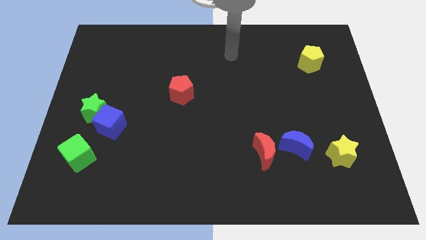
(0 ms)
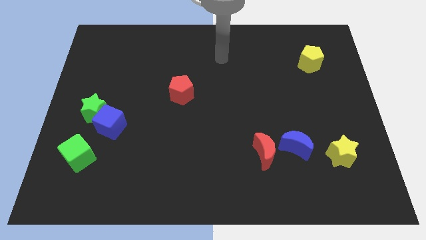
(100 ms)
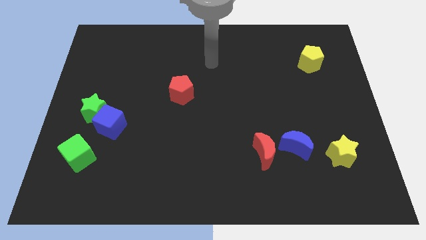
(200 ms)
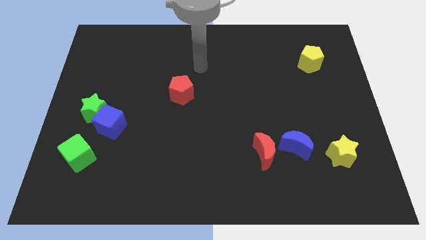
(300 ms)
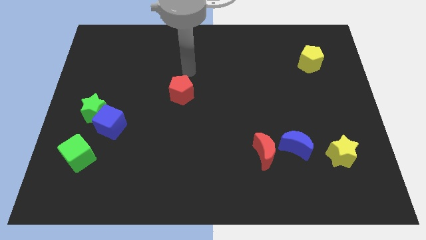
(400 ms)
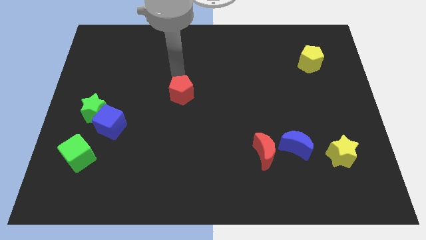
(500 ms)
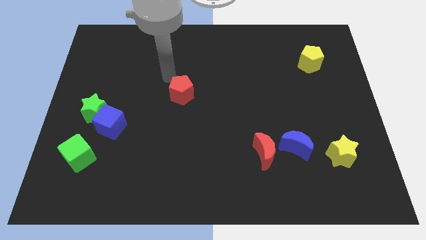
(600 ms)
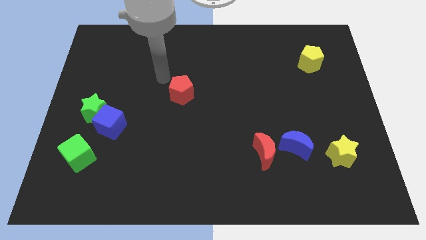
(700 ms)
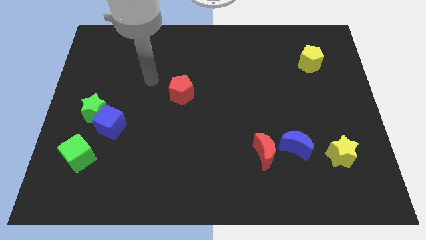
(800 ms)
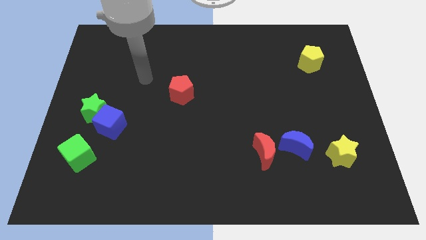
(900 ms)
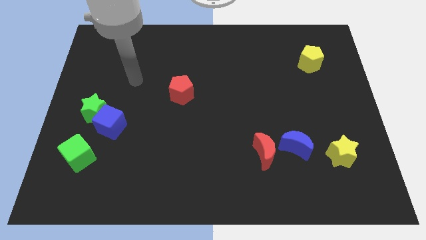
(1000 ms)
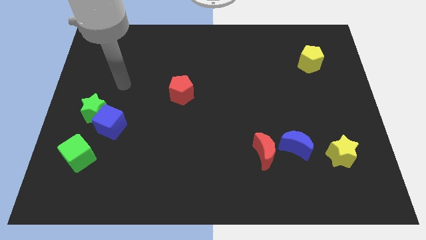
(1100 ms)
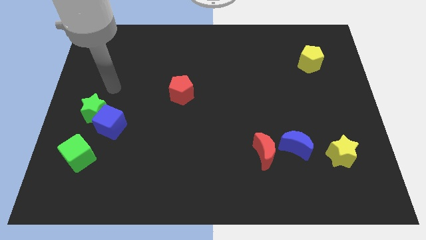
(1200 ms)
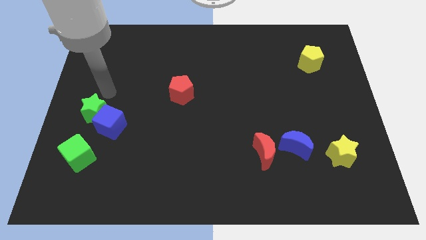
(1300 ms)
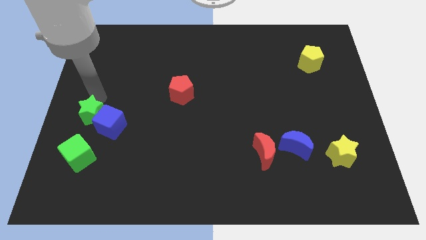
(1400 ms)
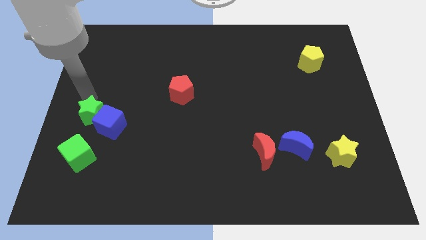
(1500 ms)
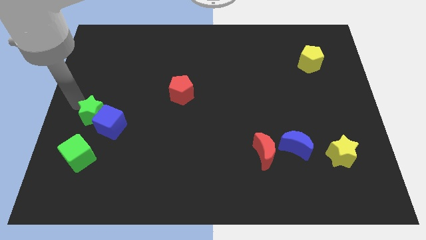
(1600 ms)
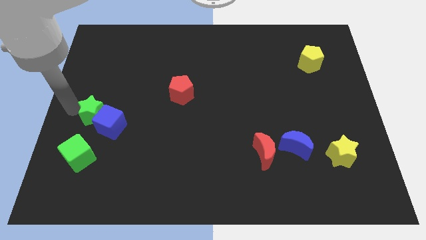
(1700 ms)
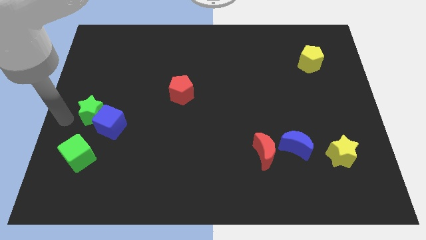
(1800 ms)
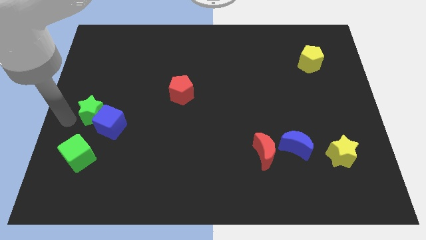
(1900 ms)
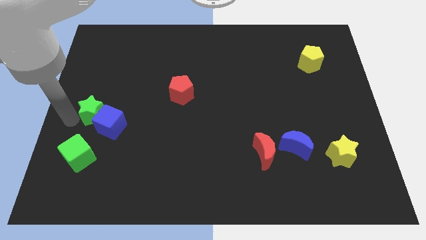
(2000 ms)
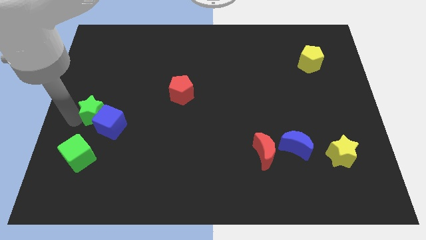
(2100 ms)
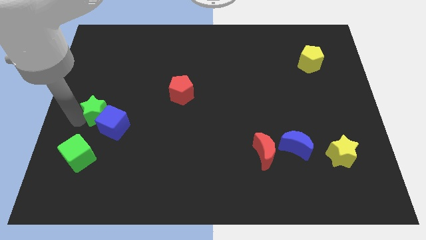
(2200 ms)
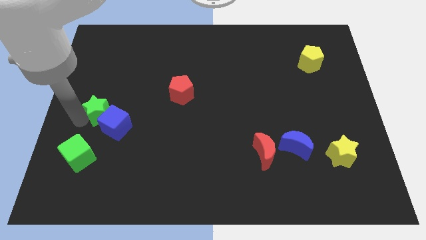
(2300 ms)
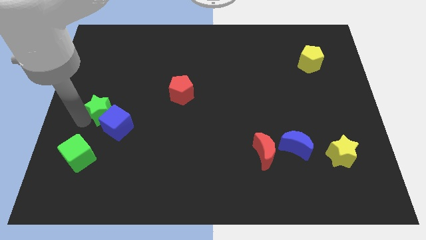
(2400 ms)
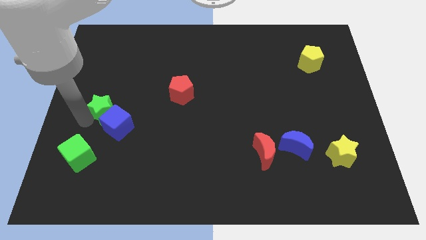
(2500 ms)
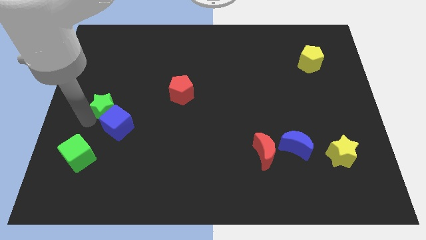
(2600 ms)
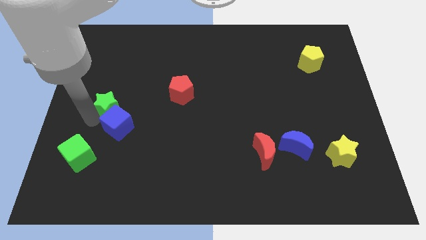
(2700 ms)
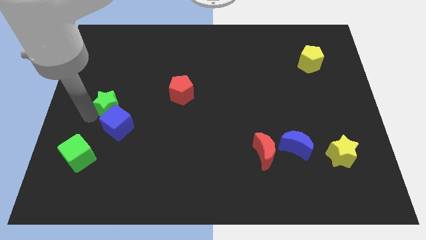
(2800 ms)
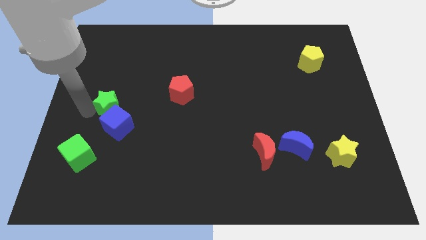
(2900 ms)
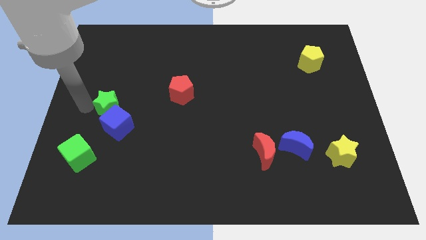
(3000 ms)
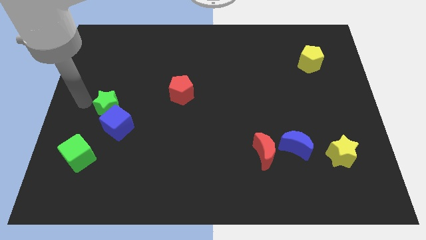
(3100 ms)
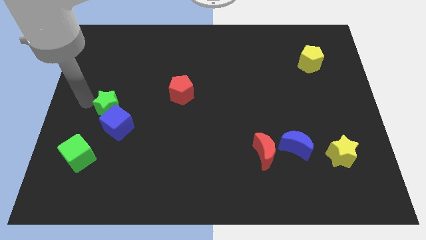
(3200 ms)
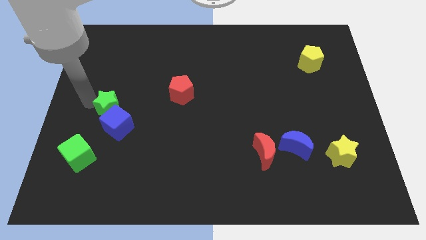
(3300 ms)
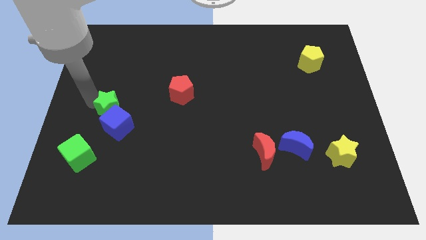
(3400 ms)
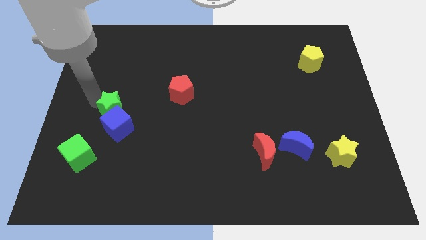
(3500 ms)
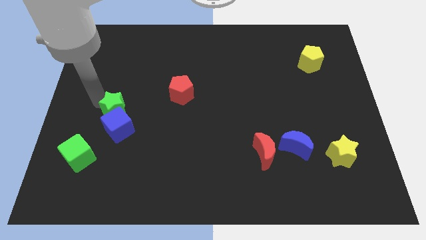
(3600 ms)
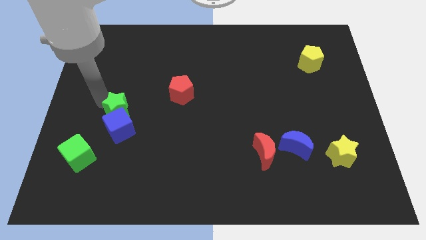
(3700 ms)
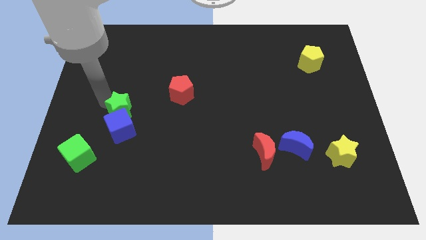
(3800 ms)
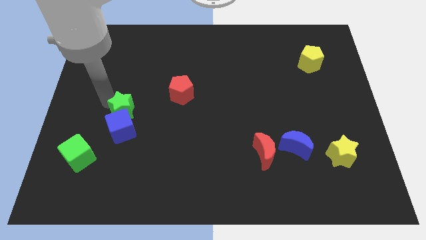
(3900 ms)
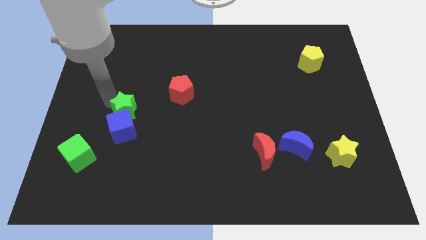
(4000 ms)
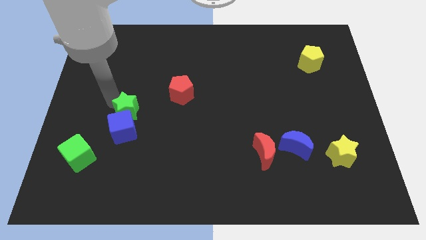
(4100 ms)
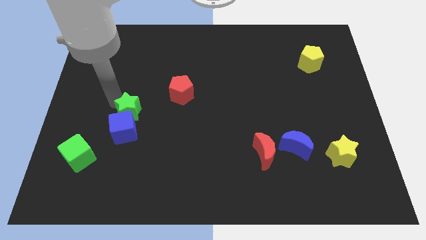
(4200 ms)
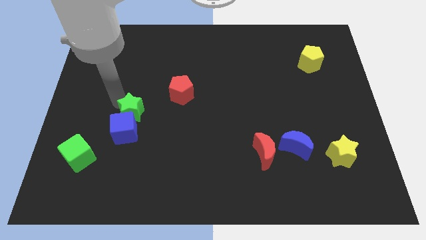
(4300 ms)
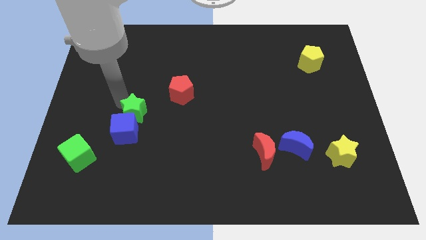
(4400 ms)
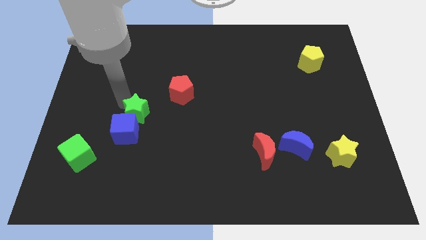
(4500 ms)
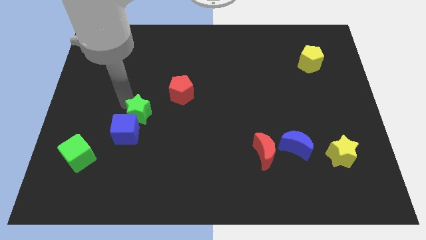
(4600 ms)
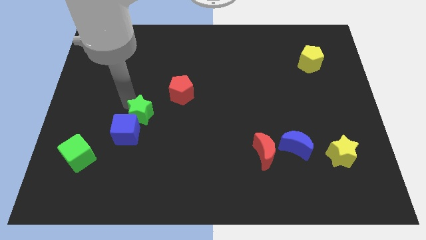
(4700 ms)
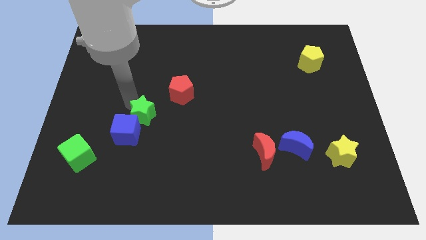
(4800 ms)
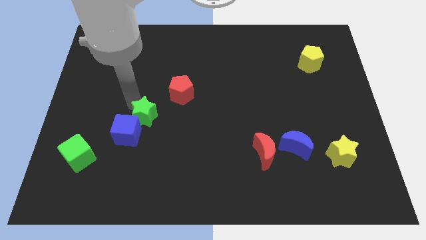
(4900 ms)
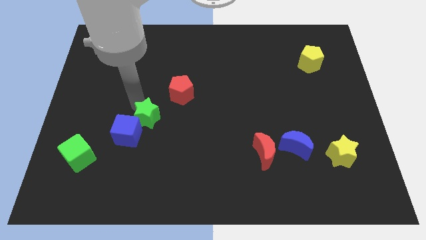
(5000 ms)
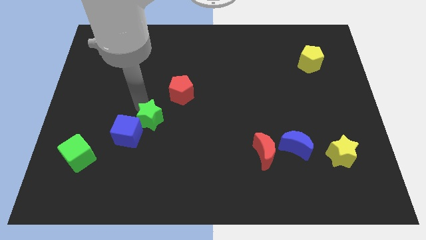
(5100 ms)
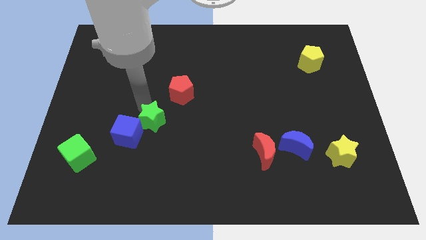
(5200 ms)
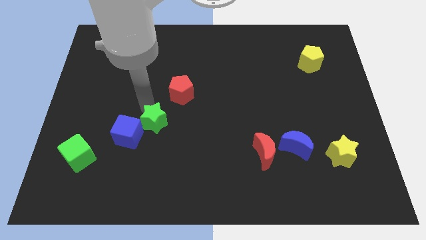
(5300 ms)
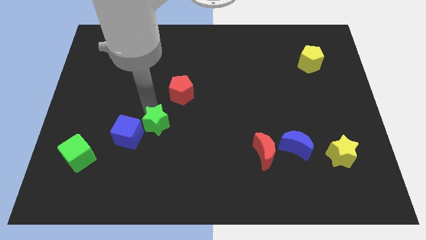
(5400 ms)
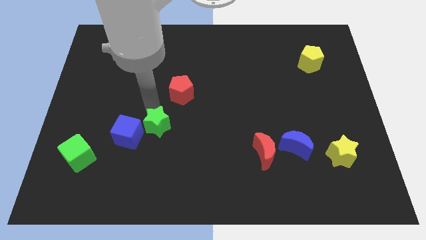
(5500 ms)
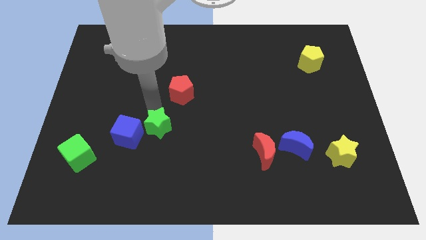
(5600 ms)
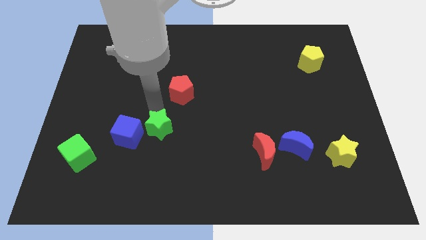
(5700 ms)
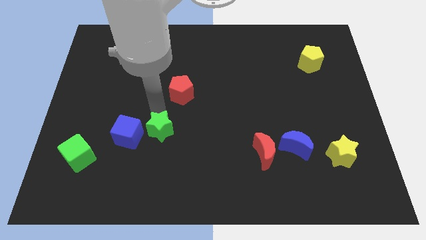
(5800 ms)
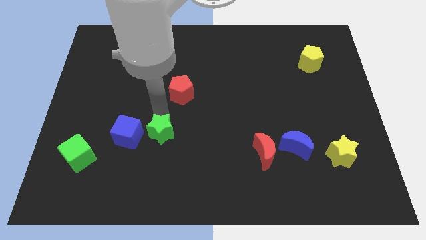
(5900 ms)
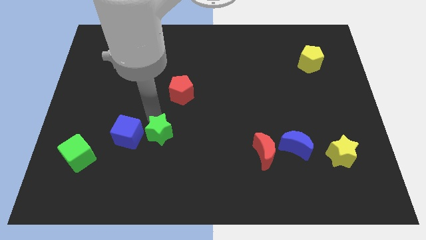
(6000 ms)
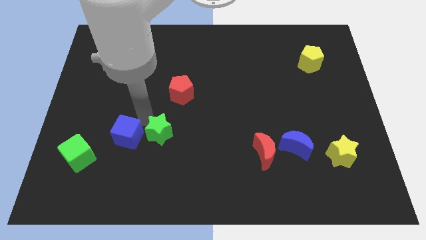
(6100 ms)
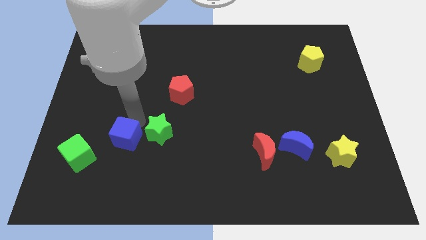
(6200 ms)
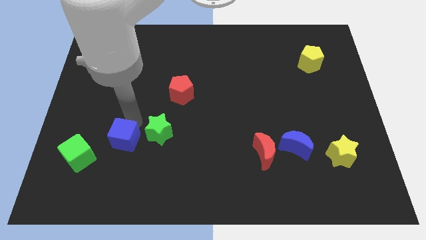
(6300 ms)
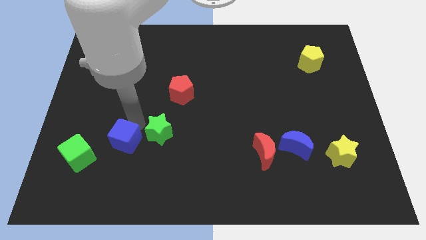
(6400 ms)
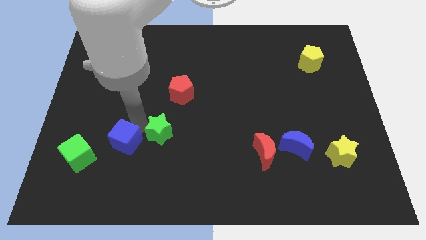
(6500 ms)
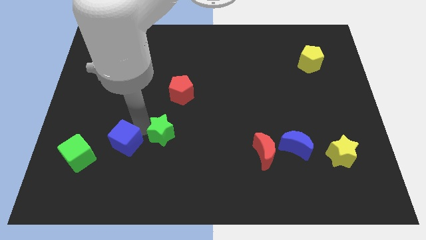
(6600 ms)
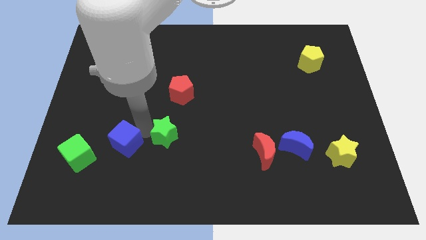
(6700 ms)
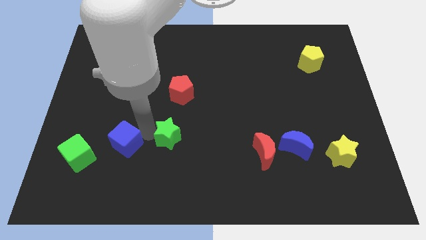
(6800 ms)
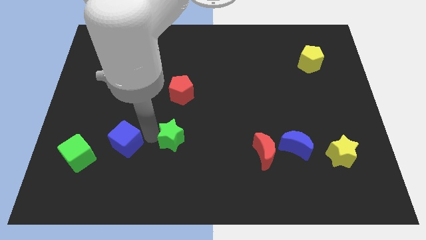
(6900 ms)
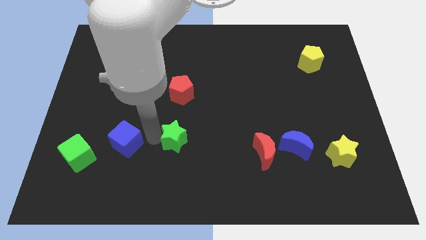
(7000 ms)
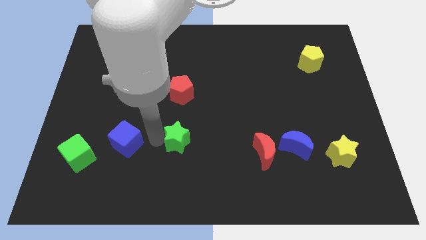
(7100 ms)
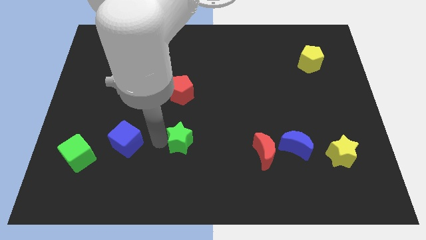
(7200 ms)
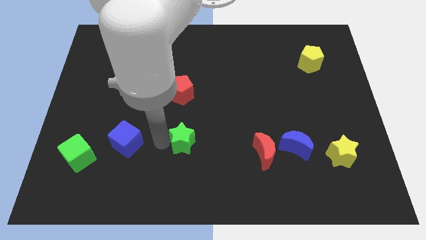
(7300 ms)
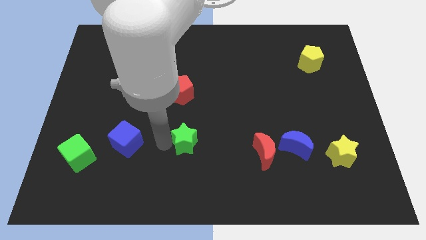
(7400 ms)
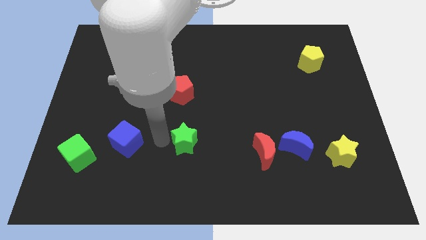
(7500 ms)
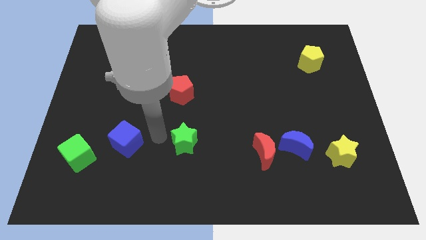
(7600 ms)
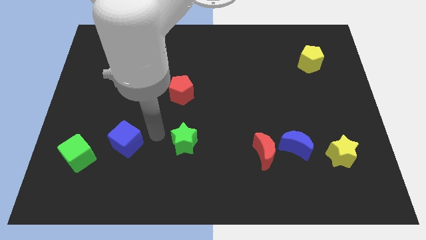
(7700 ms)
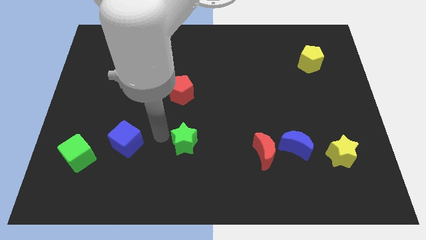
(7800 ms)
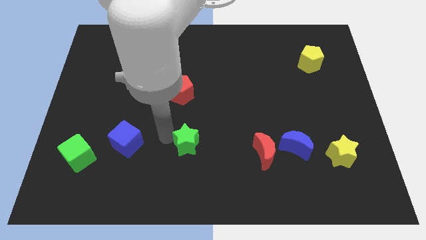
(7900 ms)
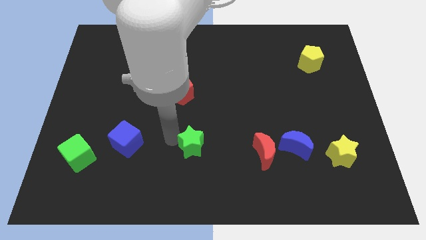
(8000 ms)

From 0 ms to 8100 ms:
put the green star to the left side of the red moon
